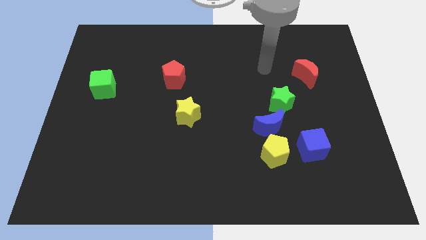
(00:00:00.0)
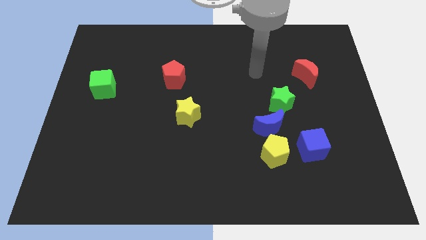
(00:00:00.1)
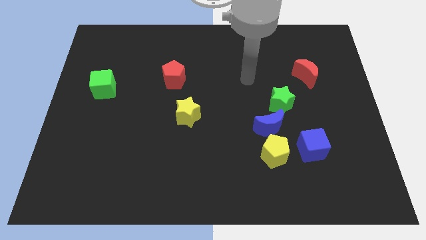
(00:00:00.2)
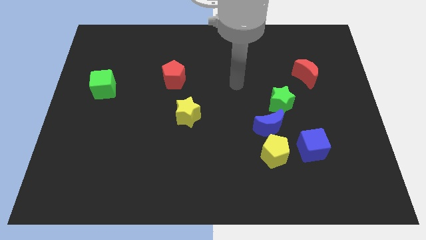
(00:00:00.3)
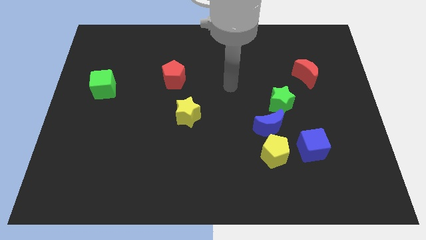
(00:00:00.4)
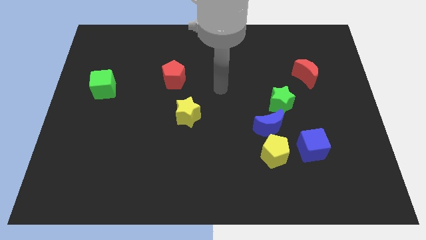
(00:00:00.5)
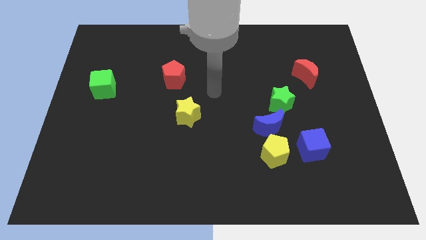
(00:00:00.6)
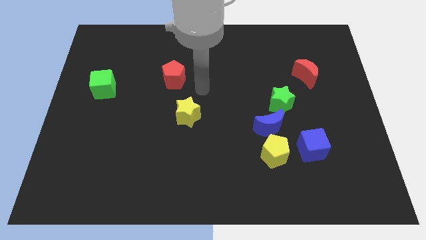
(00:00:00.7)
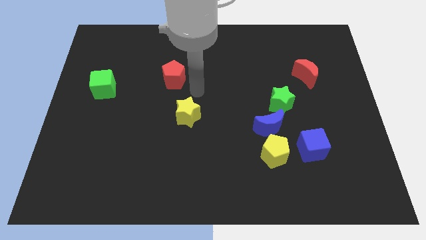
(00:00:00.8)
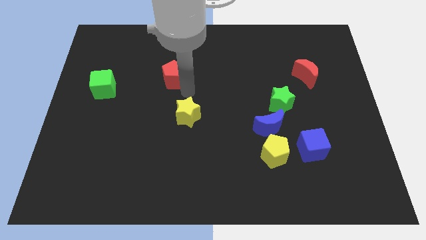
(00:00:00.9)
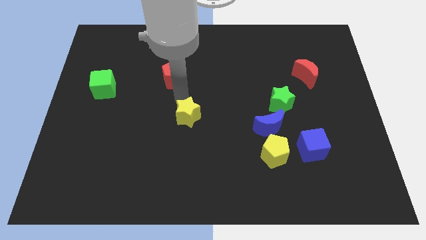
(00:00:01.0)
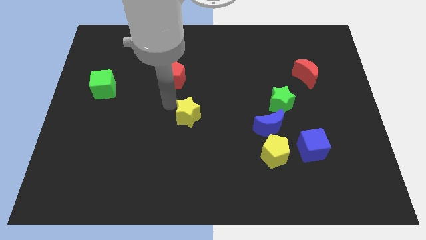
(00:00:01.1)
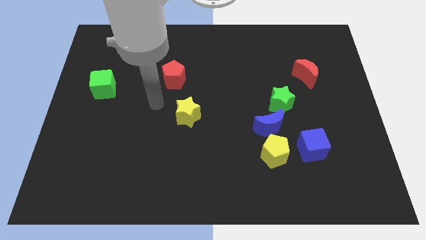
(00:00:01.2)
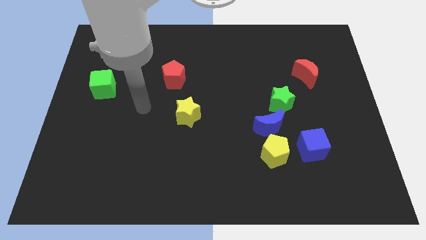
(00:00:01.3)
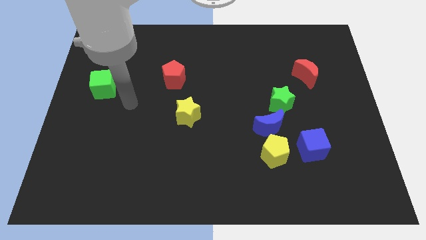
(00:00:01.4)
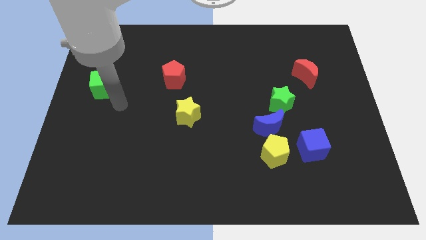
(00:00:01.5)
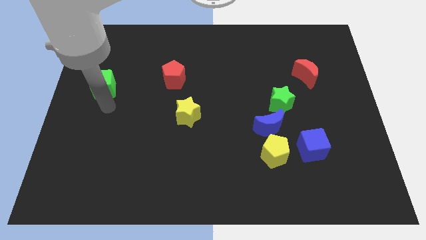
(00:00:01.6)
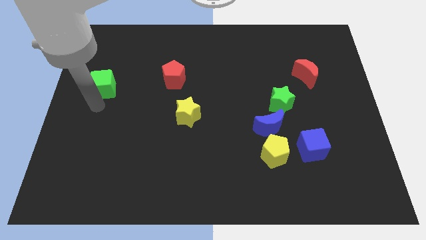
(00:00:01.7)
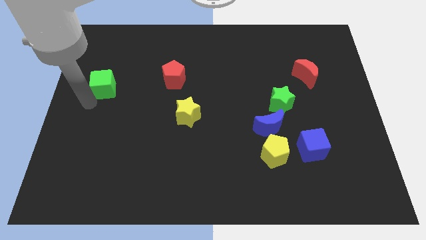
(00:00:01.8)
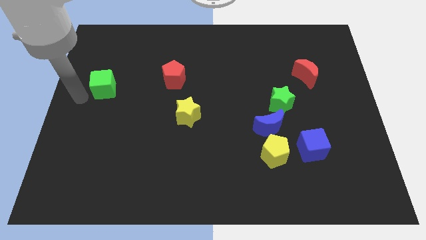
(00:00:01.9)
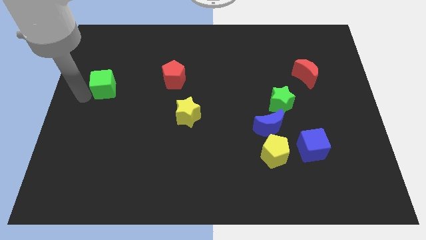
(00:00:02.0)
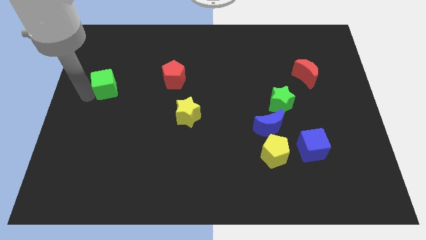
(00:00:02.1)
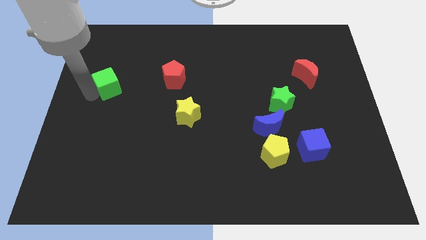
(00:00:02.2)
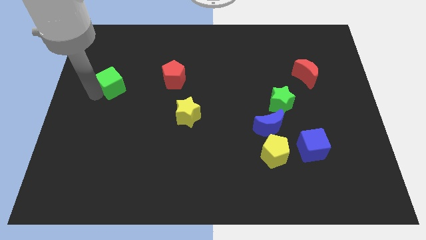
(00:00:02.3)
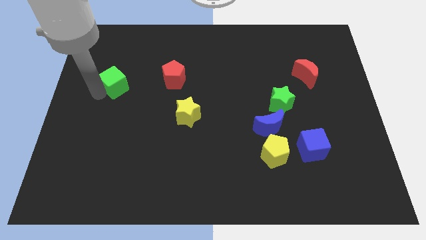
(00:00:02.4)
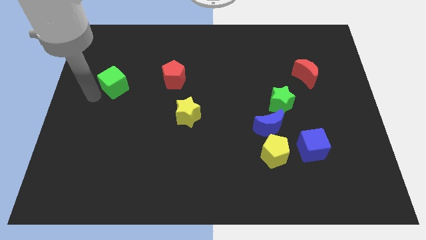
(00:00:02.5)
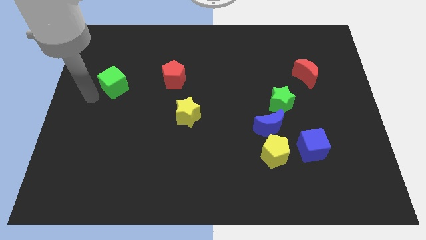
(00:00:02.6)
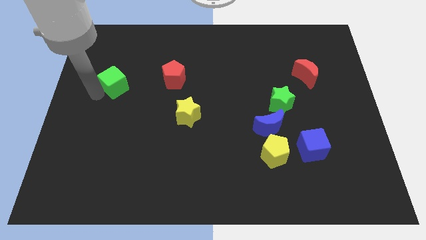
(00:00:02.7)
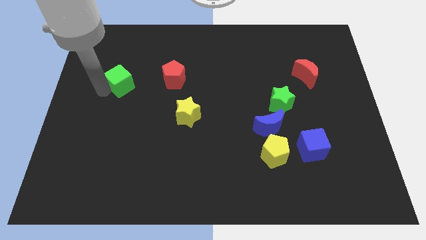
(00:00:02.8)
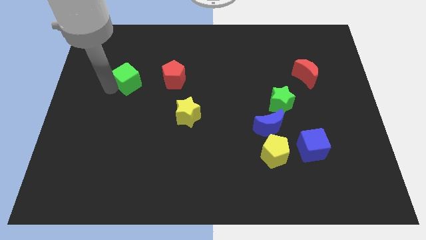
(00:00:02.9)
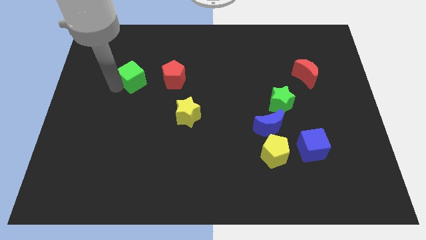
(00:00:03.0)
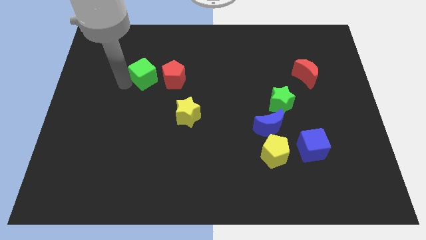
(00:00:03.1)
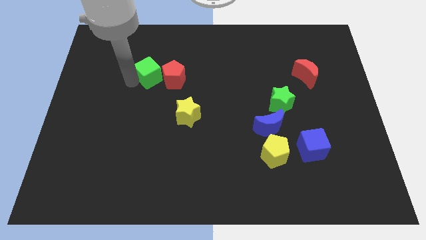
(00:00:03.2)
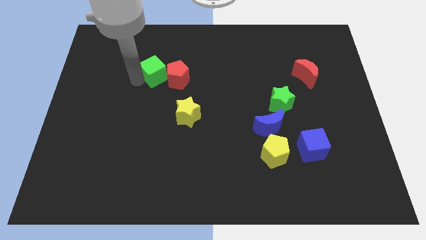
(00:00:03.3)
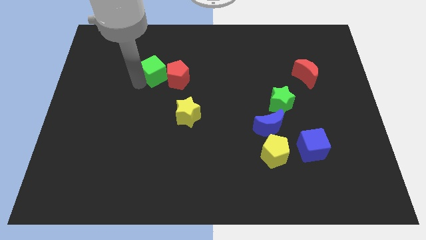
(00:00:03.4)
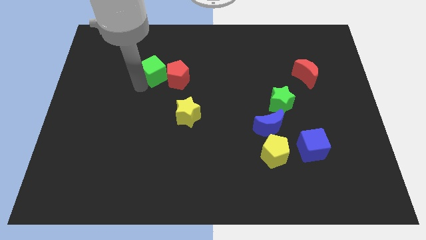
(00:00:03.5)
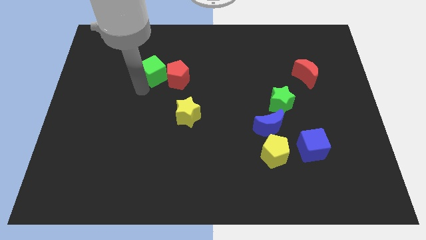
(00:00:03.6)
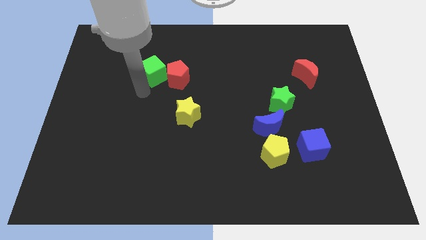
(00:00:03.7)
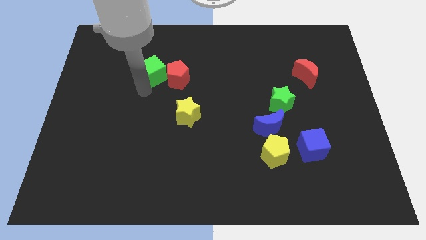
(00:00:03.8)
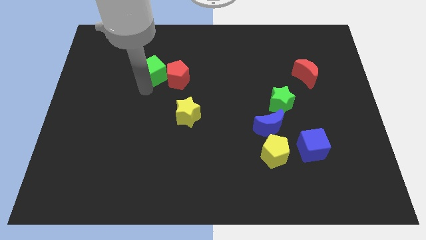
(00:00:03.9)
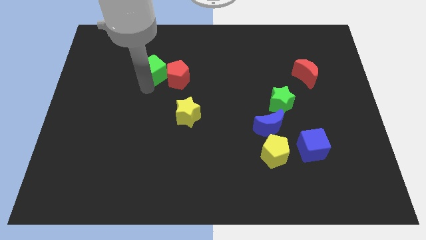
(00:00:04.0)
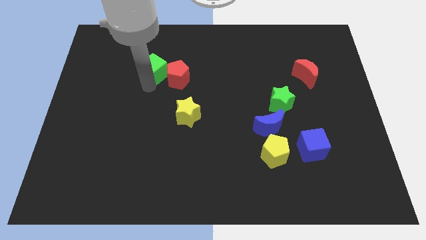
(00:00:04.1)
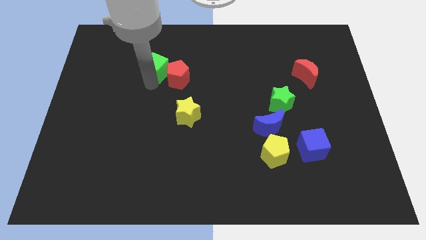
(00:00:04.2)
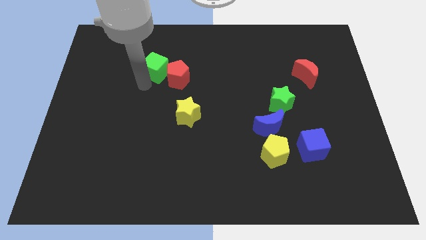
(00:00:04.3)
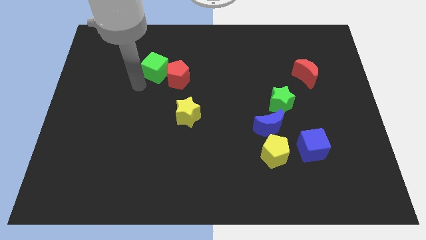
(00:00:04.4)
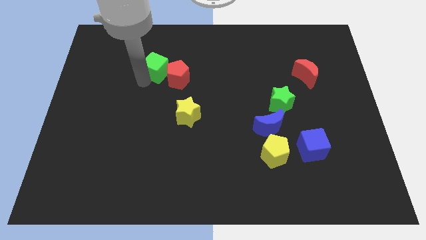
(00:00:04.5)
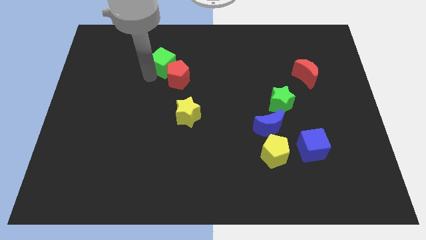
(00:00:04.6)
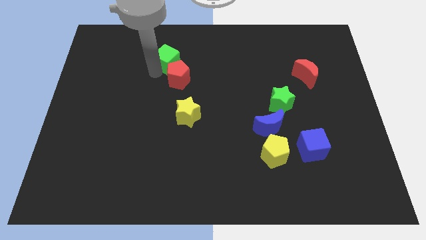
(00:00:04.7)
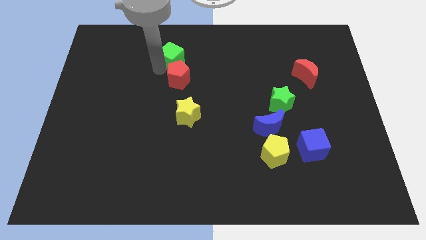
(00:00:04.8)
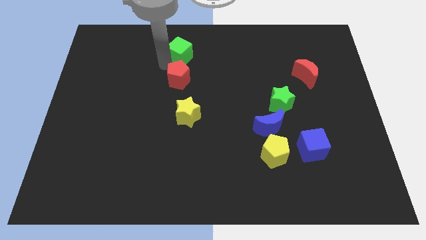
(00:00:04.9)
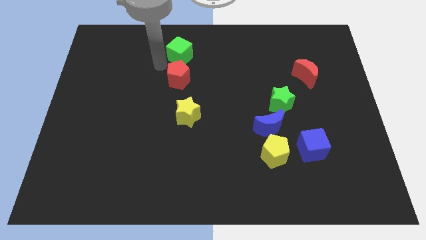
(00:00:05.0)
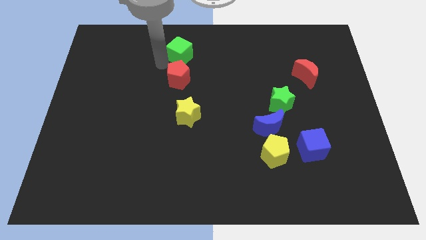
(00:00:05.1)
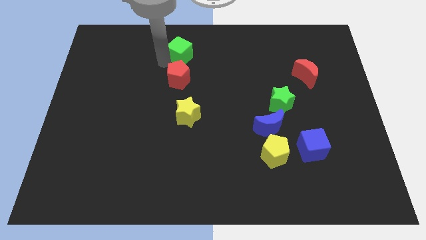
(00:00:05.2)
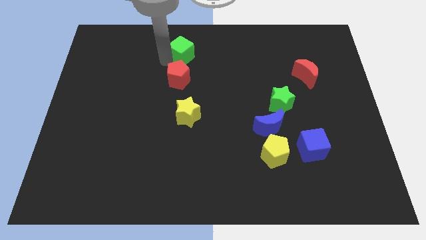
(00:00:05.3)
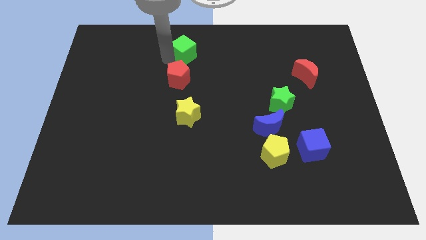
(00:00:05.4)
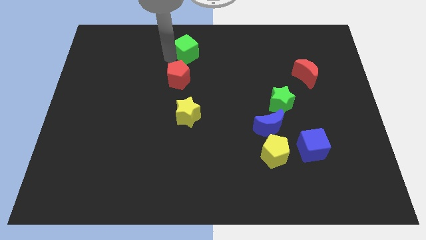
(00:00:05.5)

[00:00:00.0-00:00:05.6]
push the green cube to the top
